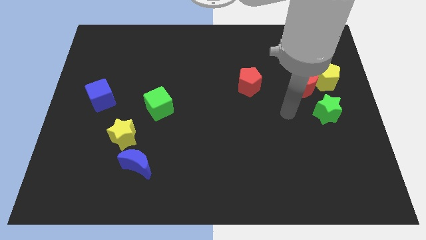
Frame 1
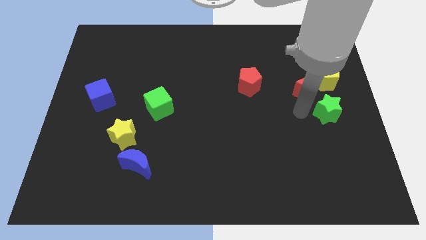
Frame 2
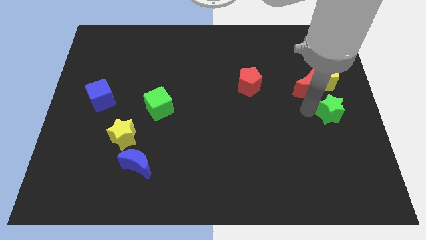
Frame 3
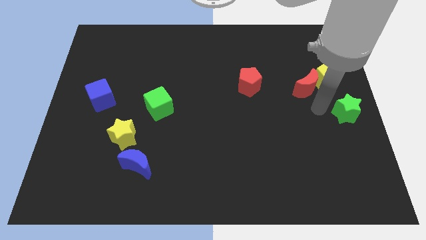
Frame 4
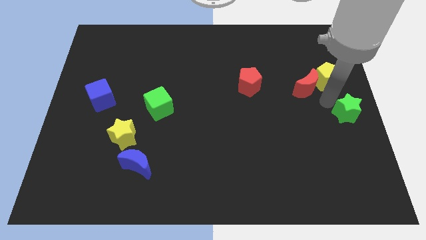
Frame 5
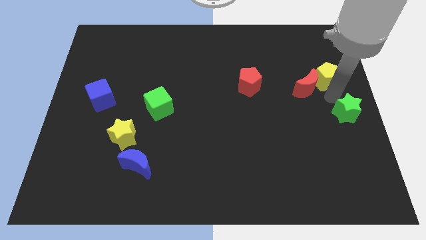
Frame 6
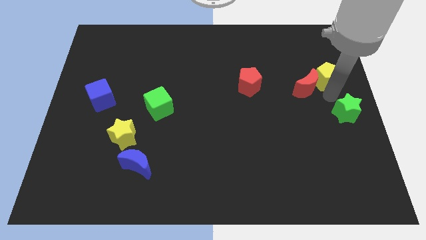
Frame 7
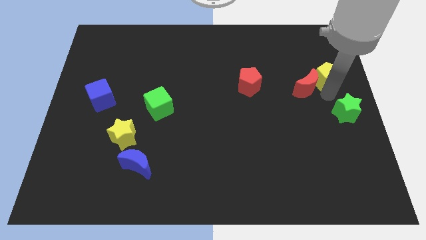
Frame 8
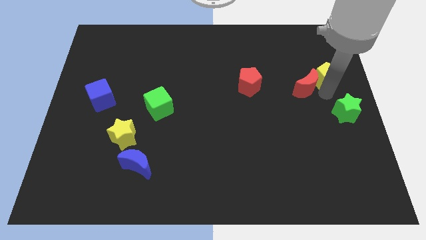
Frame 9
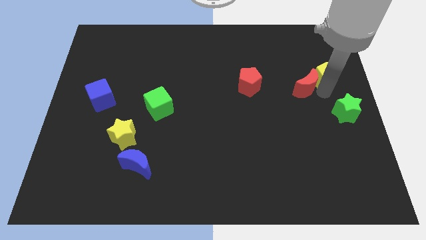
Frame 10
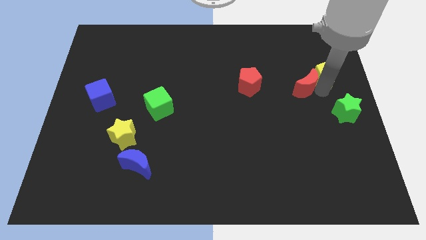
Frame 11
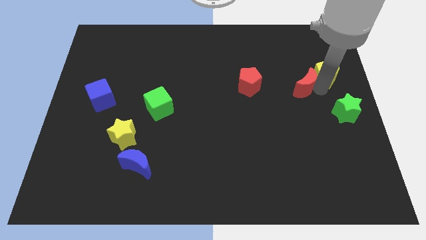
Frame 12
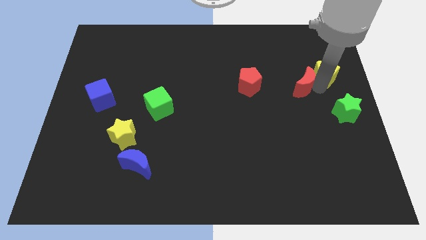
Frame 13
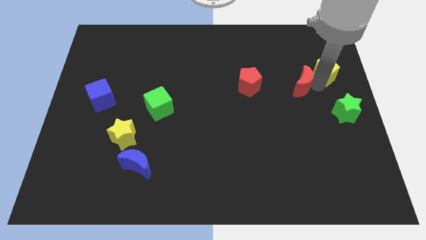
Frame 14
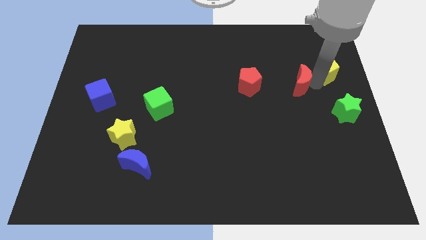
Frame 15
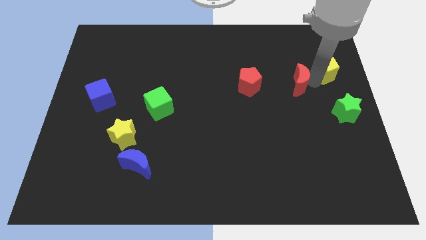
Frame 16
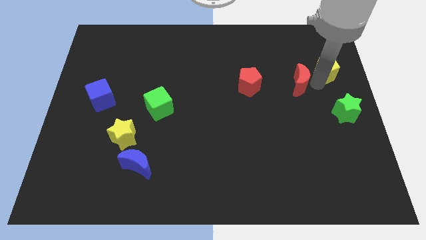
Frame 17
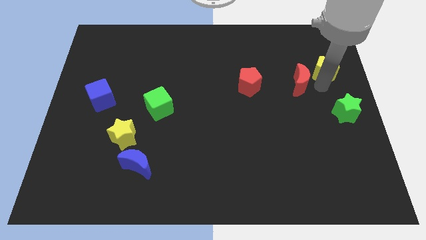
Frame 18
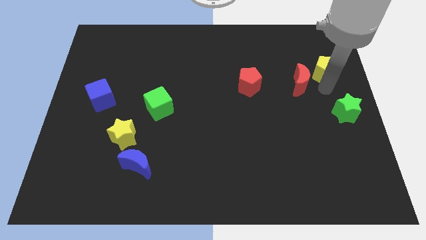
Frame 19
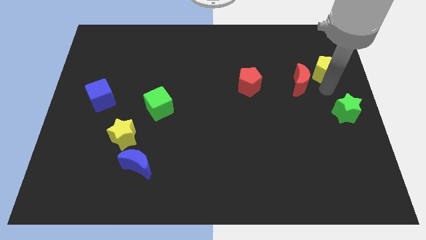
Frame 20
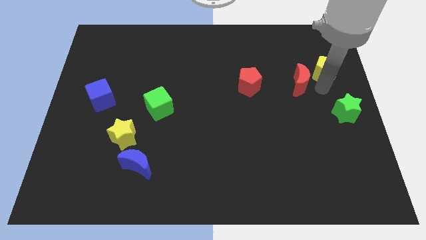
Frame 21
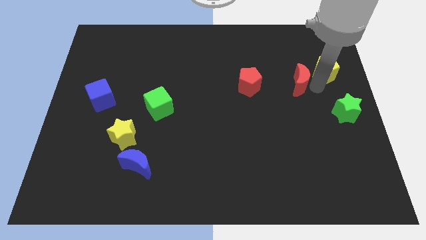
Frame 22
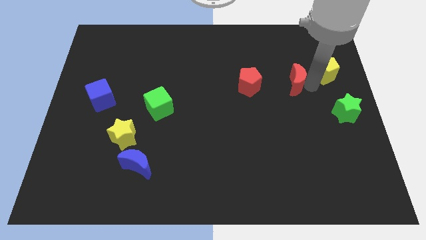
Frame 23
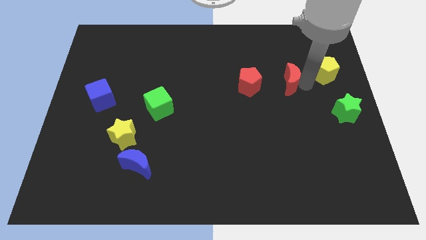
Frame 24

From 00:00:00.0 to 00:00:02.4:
separate the red moon from the yellow pentagon and green star

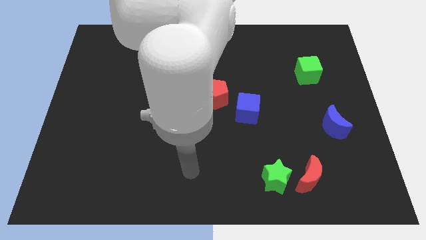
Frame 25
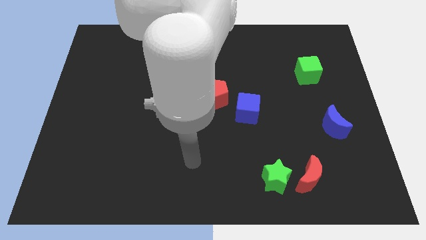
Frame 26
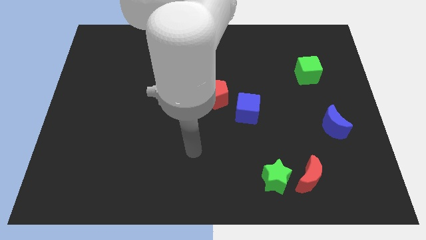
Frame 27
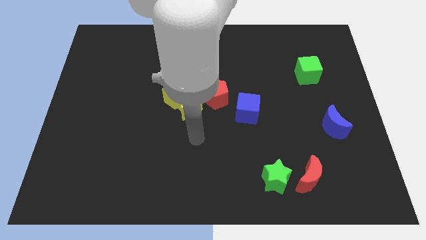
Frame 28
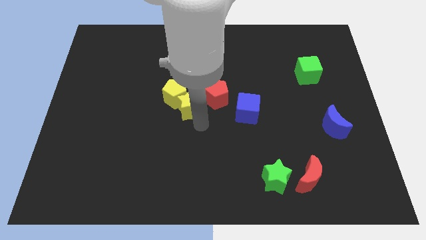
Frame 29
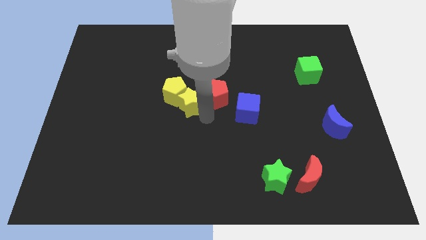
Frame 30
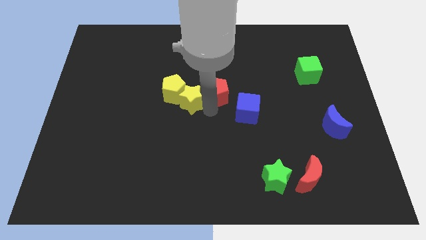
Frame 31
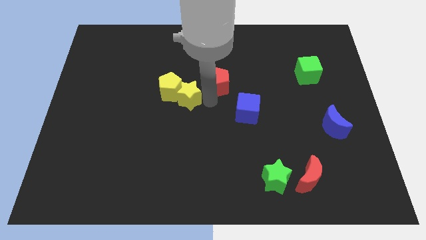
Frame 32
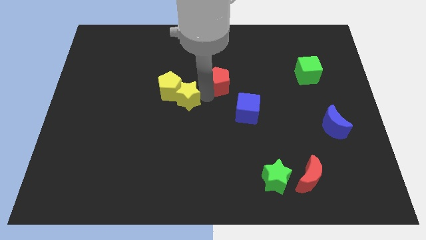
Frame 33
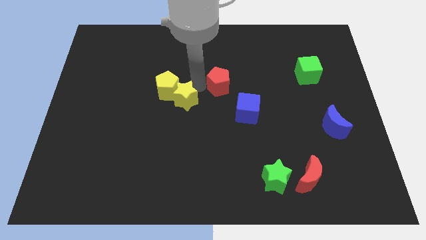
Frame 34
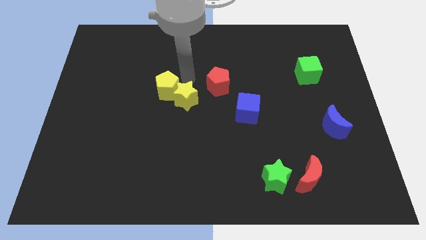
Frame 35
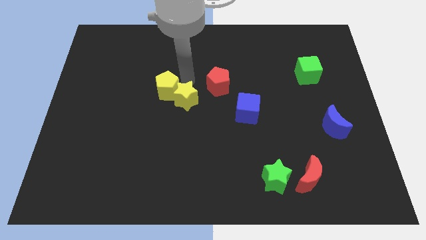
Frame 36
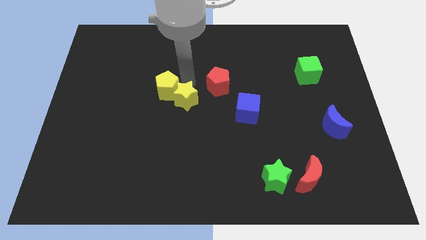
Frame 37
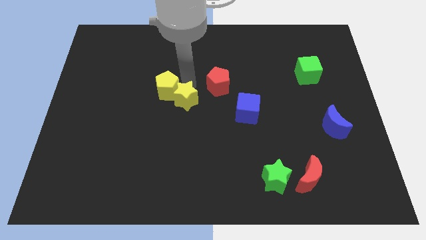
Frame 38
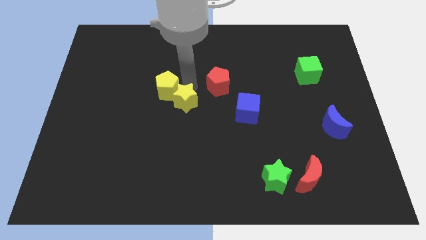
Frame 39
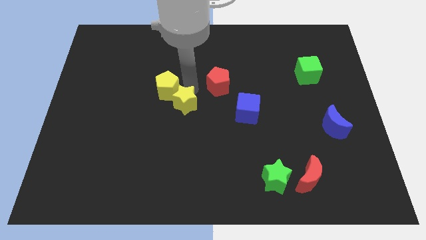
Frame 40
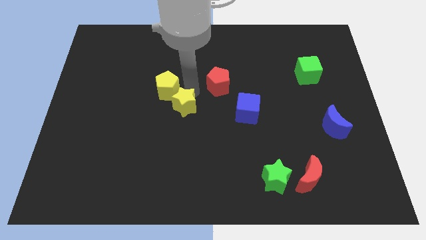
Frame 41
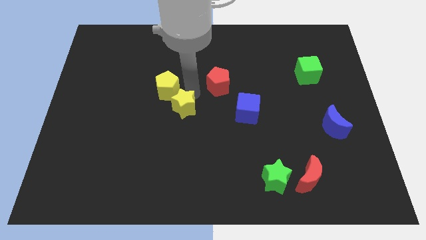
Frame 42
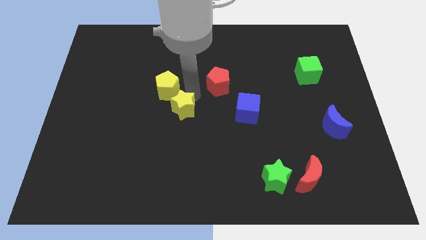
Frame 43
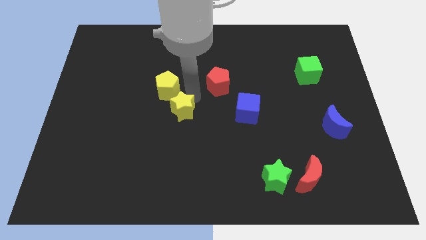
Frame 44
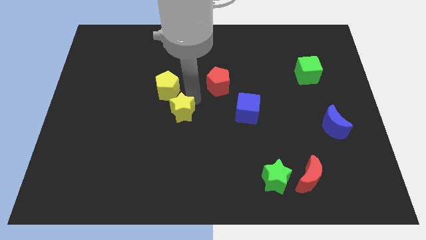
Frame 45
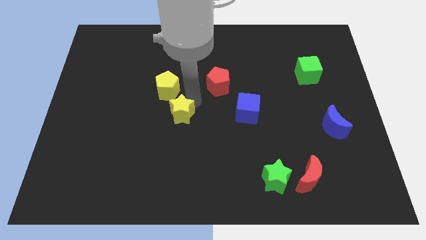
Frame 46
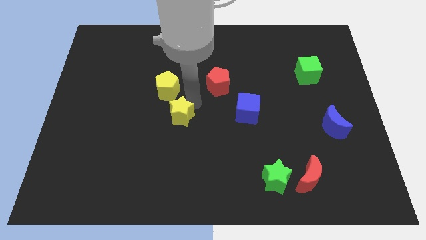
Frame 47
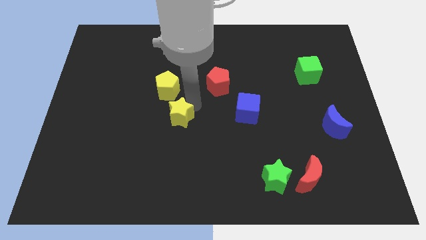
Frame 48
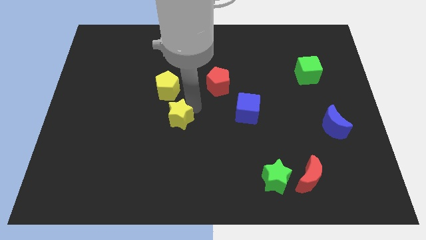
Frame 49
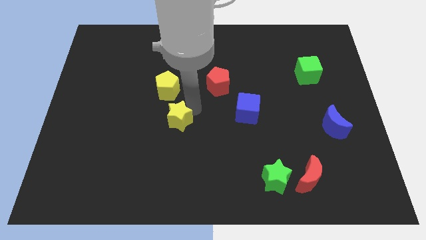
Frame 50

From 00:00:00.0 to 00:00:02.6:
move the yellow star away from the yellow pentagon and red pentagon

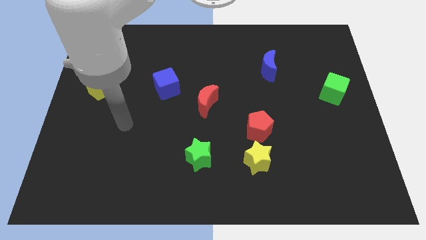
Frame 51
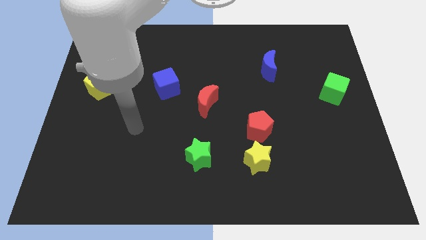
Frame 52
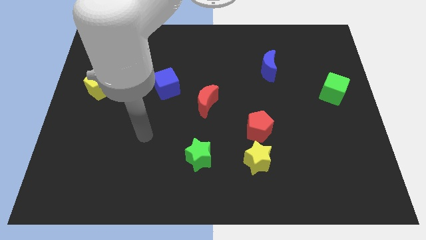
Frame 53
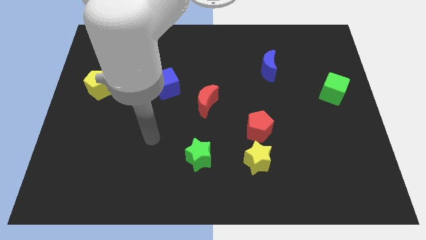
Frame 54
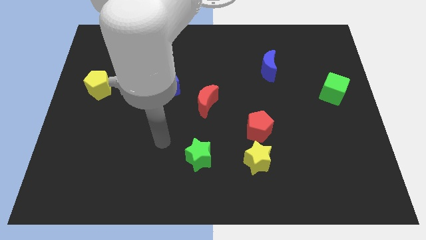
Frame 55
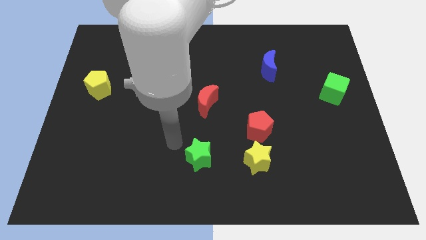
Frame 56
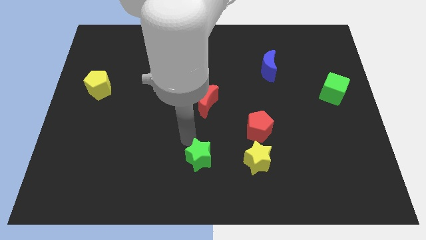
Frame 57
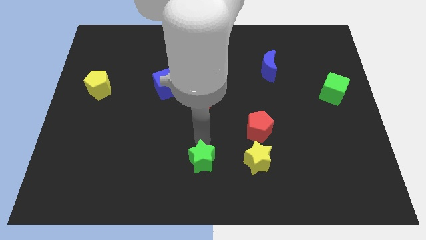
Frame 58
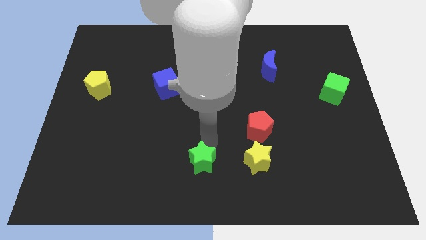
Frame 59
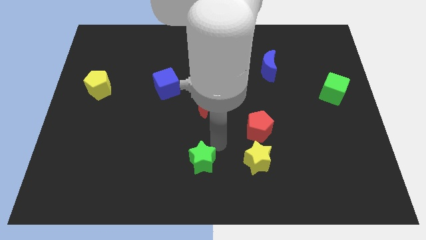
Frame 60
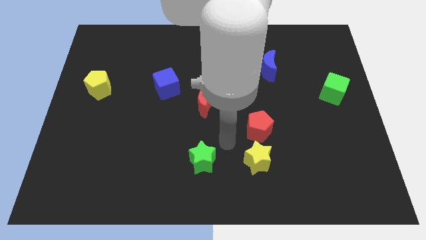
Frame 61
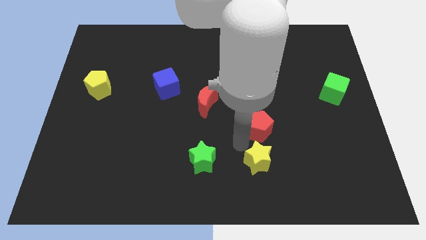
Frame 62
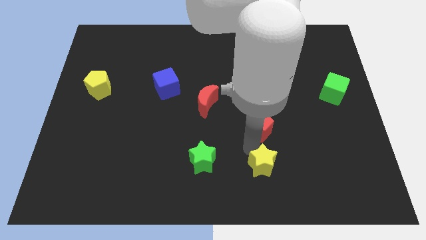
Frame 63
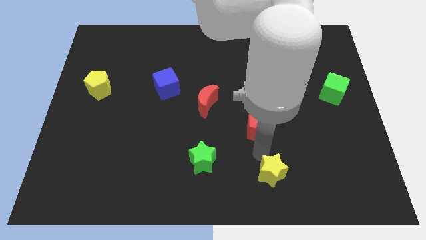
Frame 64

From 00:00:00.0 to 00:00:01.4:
separate the red pentagon from the yellow star

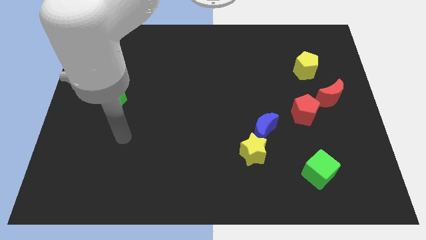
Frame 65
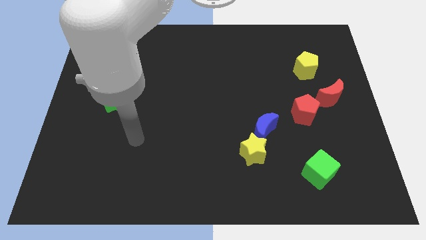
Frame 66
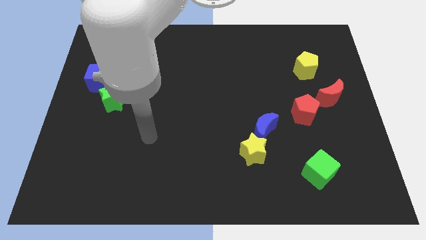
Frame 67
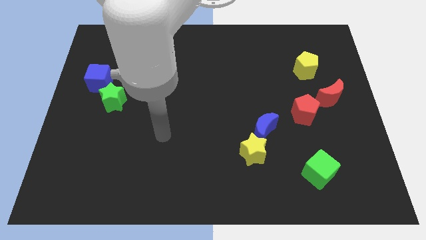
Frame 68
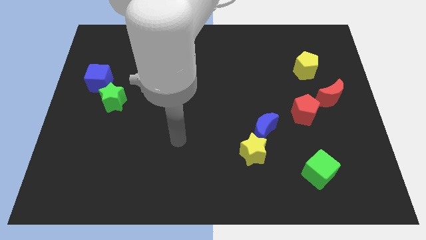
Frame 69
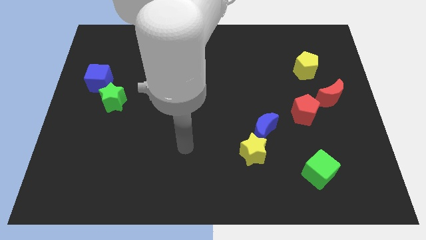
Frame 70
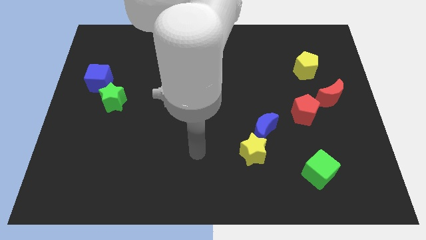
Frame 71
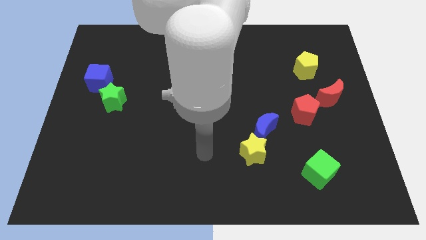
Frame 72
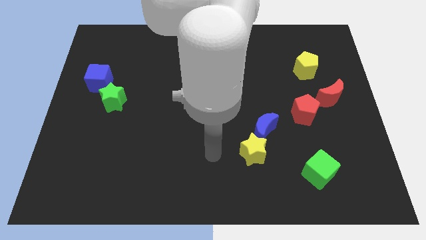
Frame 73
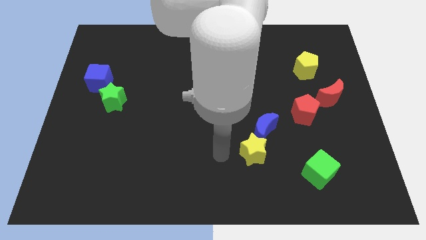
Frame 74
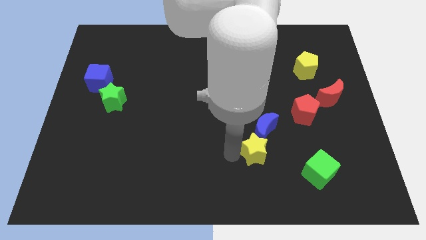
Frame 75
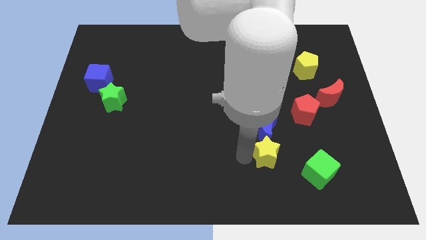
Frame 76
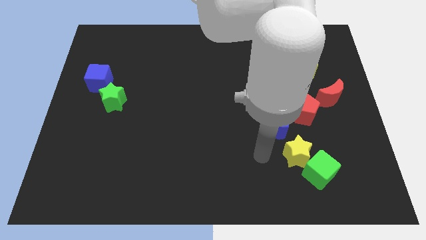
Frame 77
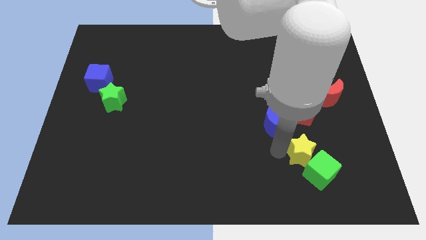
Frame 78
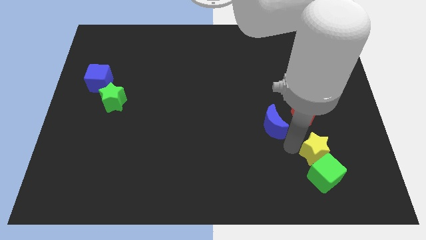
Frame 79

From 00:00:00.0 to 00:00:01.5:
move the blue moon away from the yellow star

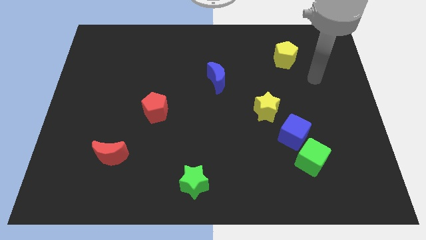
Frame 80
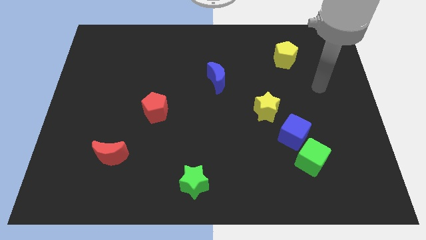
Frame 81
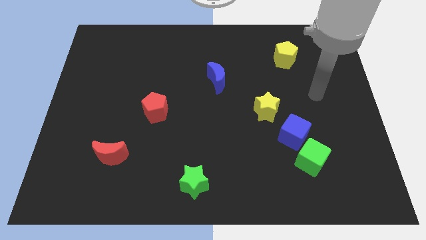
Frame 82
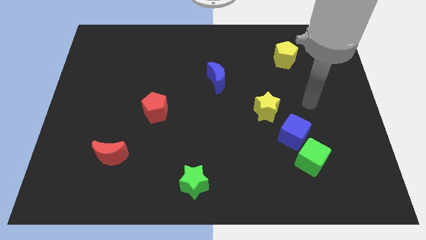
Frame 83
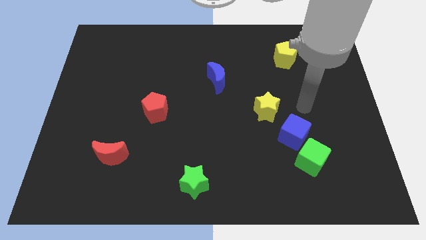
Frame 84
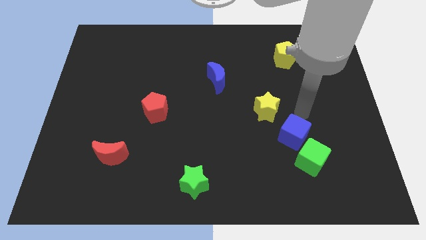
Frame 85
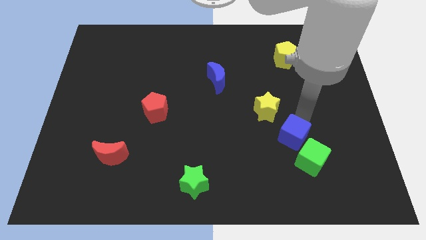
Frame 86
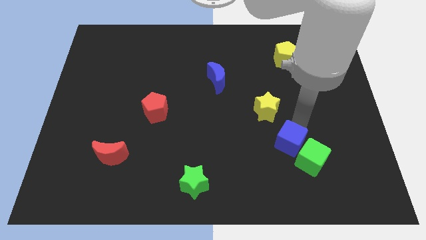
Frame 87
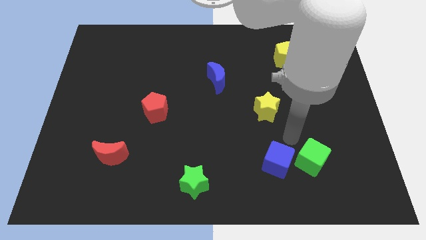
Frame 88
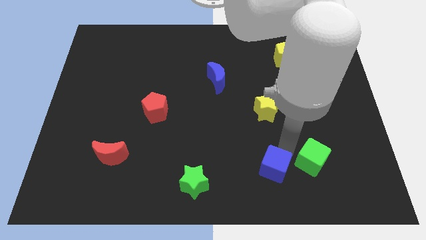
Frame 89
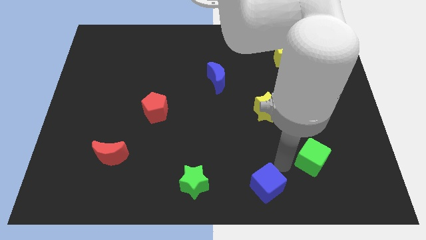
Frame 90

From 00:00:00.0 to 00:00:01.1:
pull the green cube apart from the blue cube

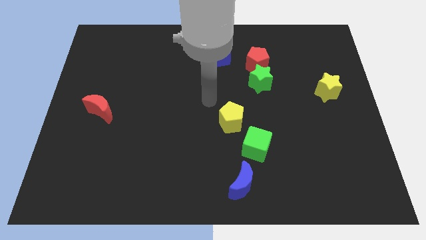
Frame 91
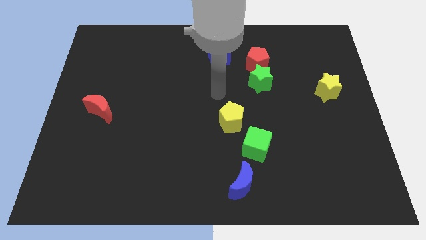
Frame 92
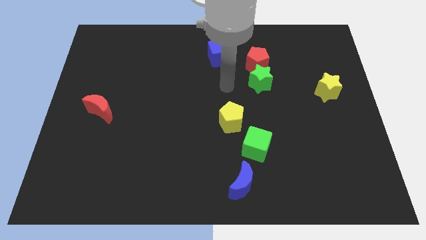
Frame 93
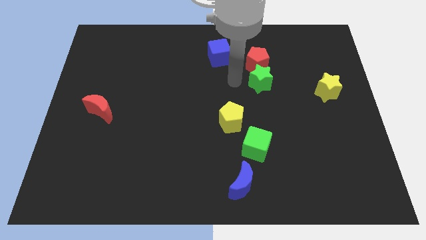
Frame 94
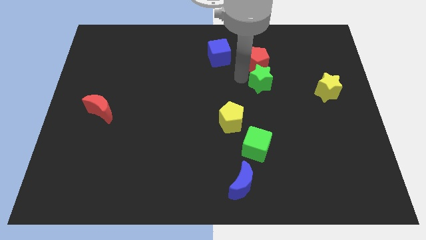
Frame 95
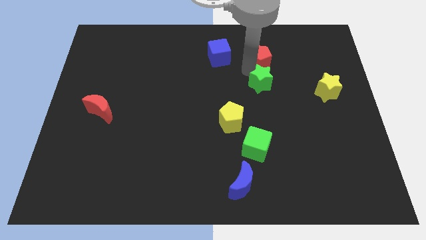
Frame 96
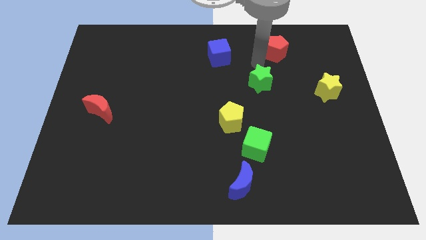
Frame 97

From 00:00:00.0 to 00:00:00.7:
separate the green star from the red pentagon
